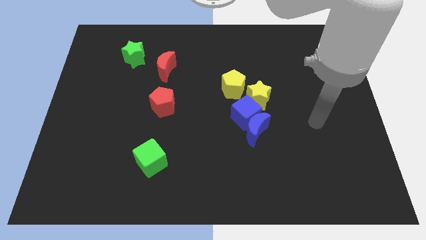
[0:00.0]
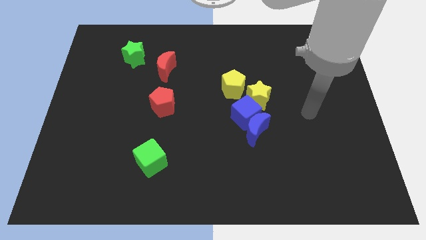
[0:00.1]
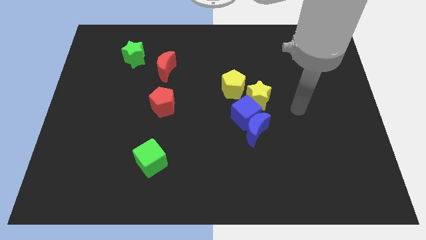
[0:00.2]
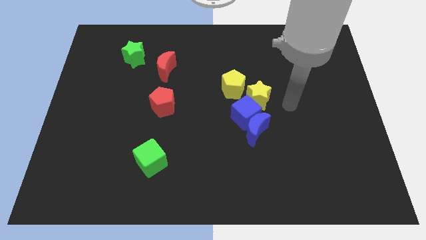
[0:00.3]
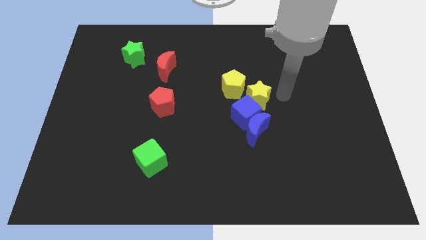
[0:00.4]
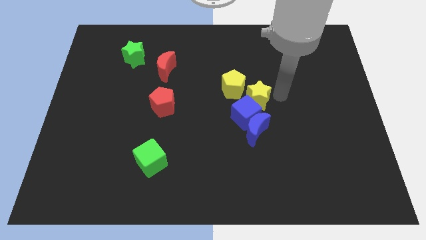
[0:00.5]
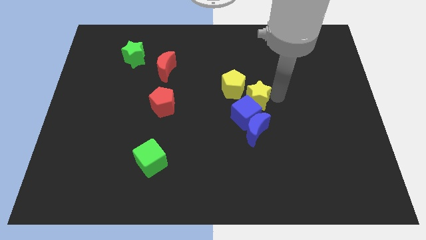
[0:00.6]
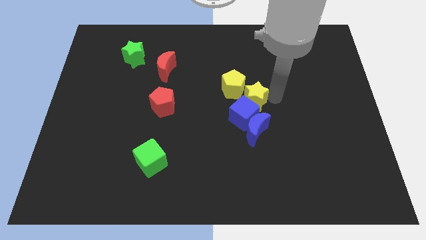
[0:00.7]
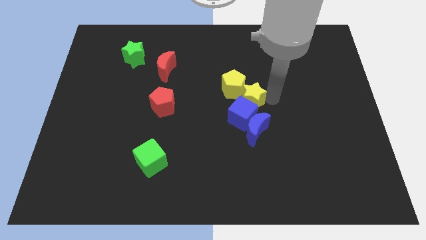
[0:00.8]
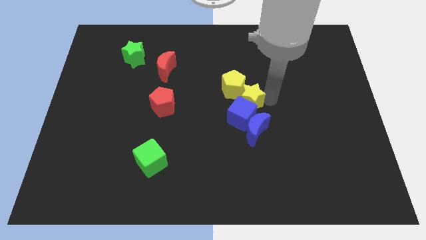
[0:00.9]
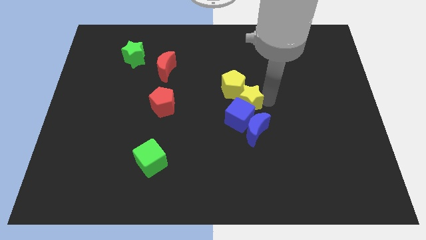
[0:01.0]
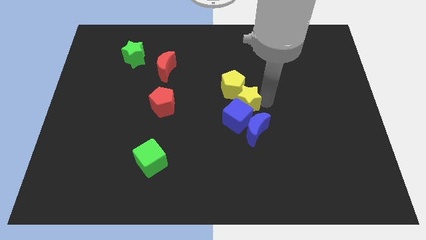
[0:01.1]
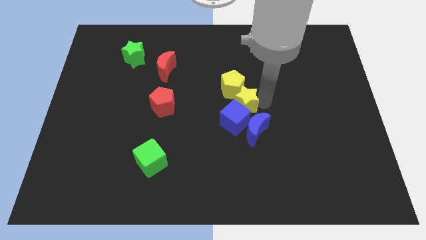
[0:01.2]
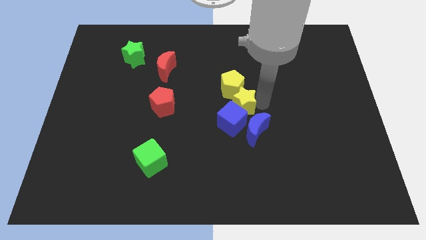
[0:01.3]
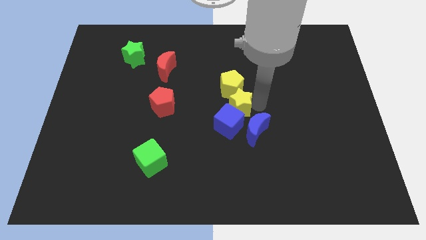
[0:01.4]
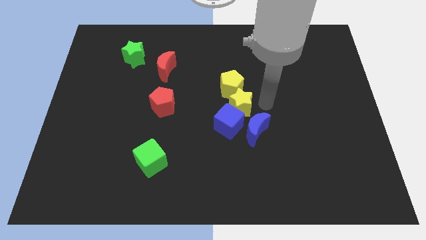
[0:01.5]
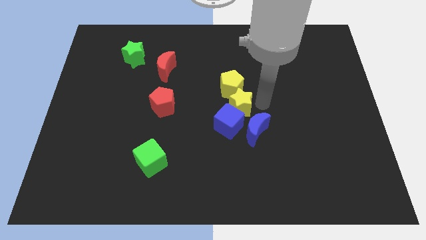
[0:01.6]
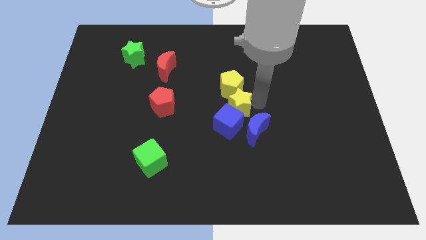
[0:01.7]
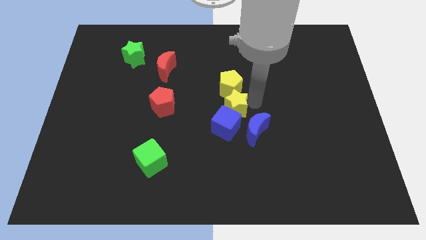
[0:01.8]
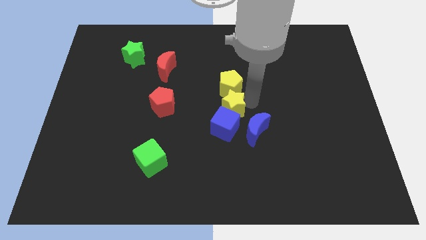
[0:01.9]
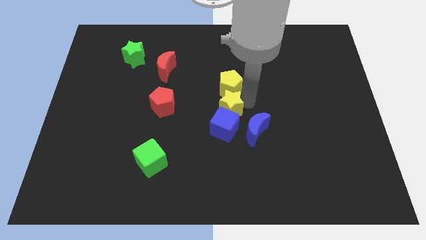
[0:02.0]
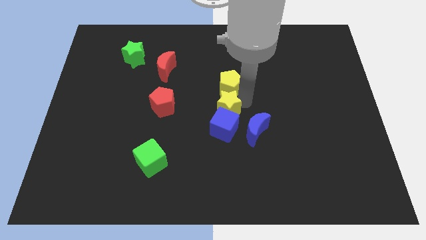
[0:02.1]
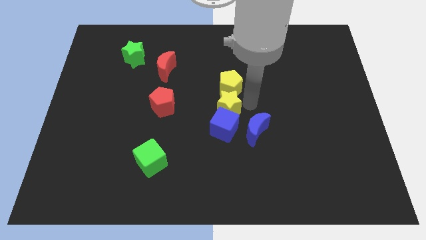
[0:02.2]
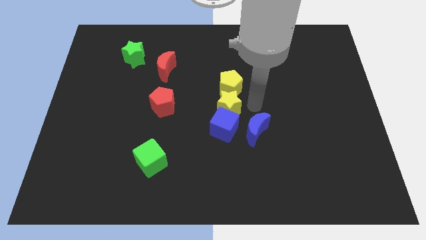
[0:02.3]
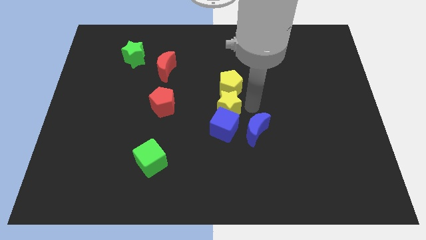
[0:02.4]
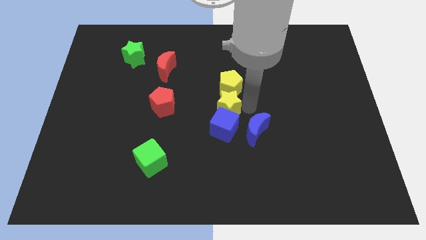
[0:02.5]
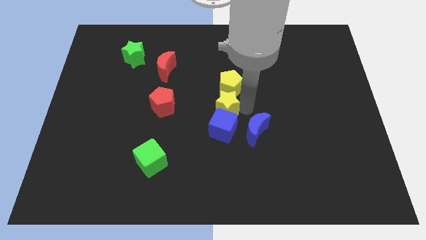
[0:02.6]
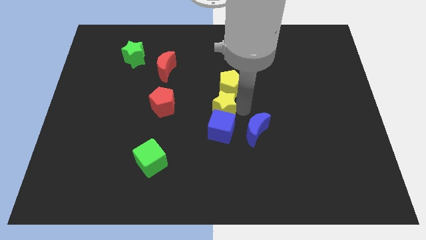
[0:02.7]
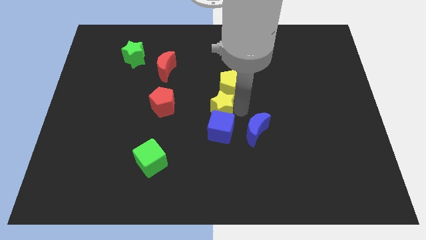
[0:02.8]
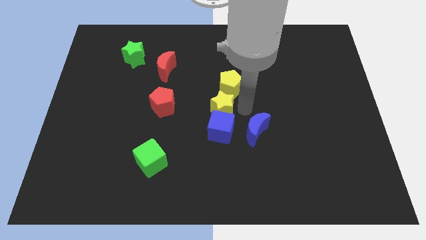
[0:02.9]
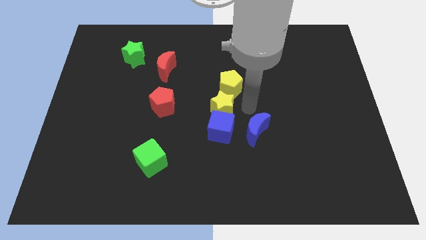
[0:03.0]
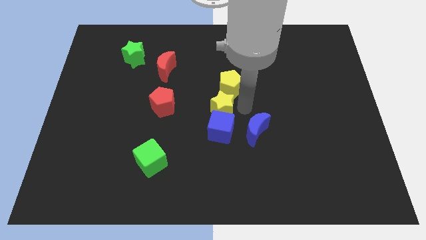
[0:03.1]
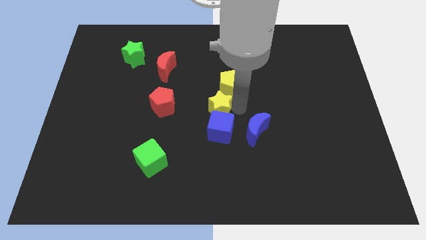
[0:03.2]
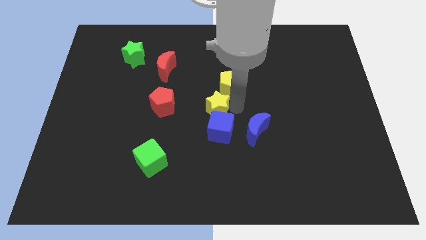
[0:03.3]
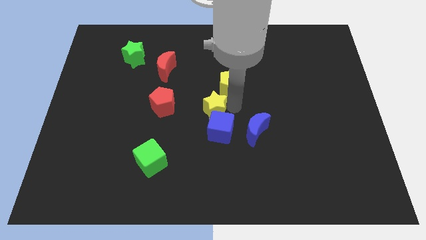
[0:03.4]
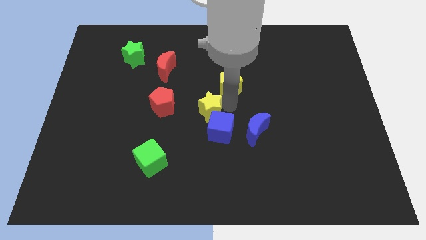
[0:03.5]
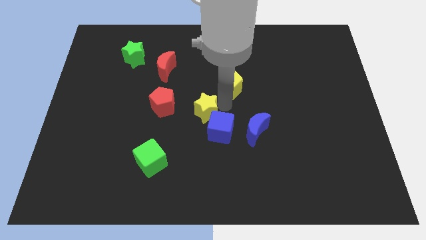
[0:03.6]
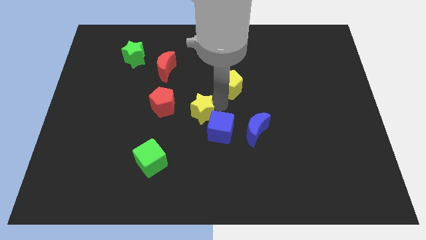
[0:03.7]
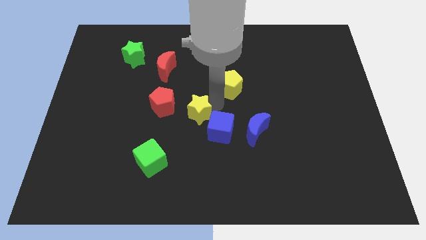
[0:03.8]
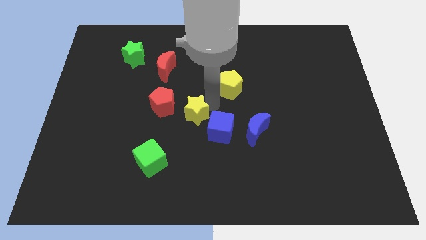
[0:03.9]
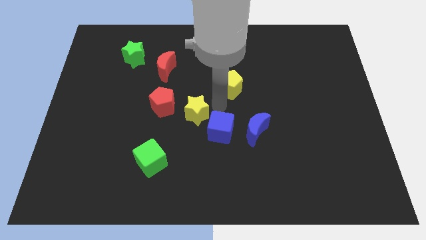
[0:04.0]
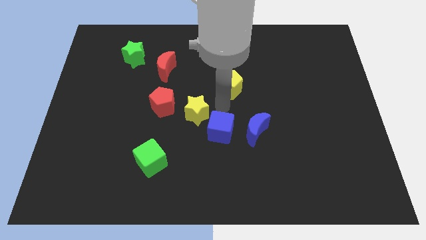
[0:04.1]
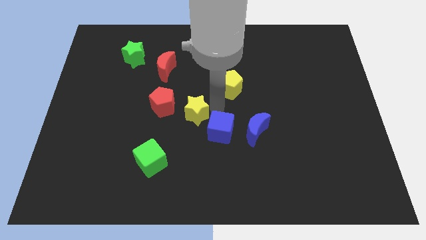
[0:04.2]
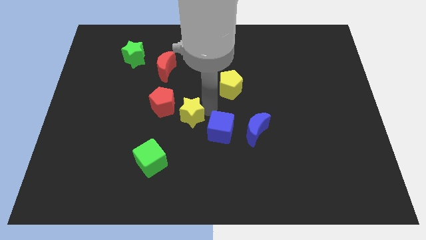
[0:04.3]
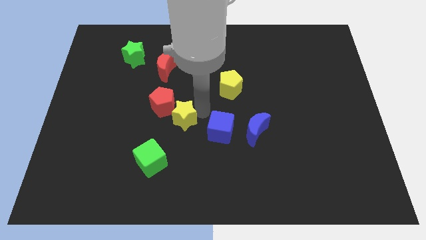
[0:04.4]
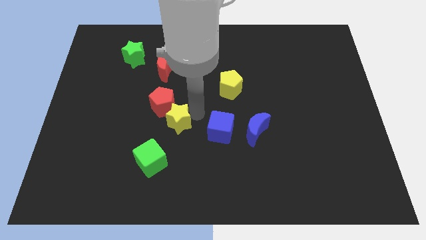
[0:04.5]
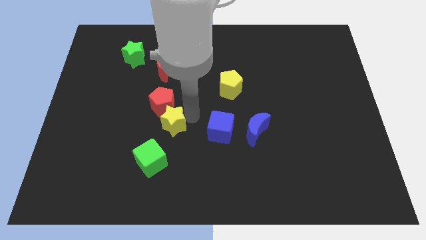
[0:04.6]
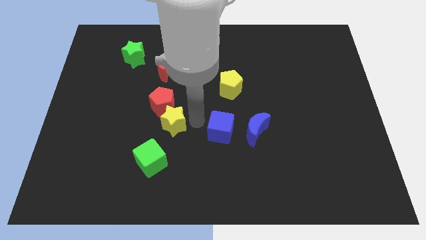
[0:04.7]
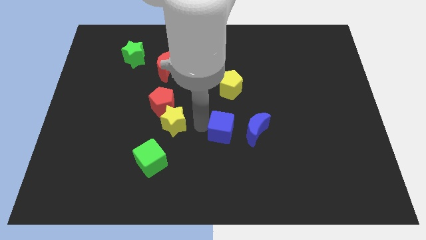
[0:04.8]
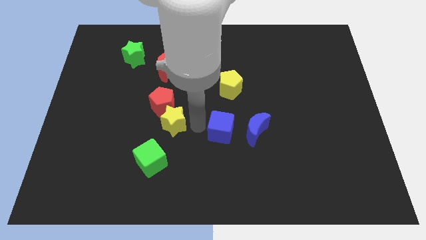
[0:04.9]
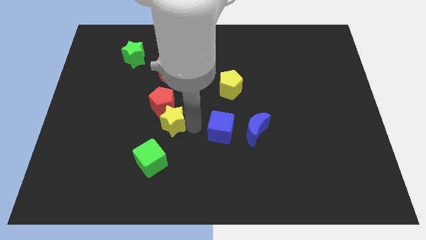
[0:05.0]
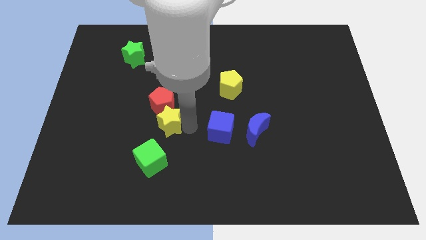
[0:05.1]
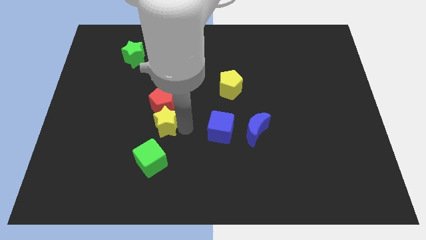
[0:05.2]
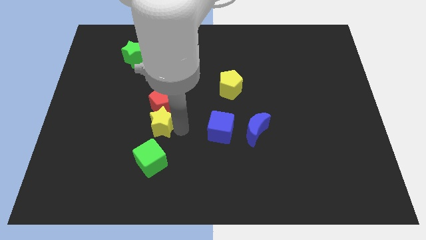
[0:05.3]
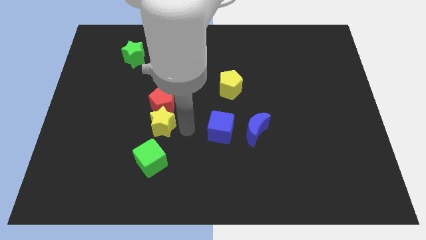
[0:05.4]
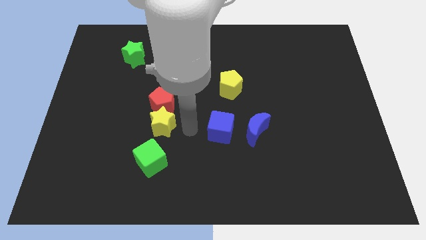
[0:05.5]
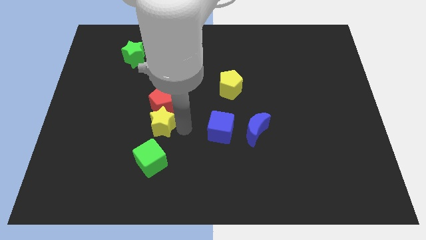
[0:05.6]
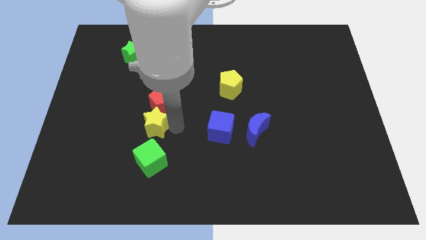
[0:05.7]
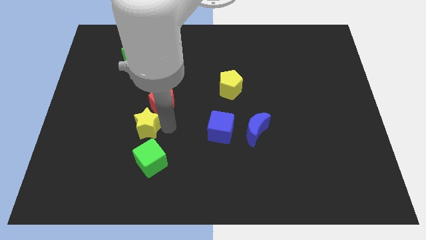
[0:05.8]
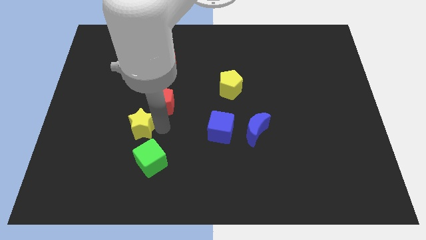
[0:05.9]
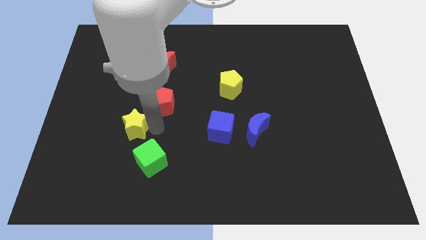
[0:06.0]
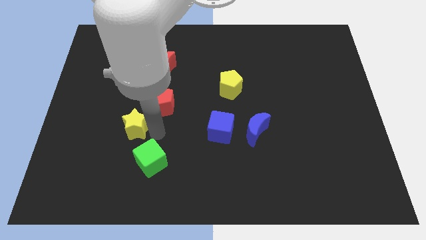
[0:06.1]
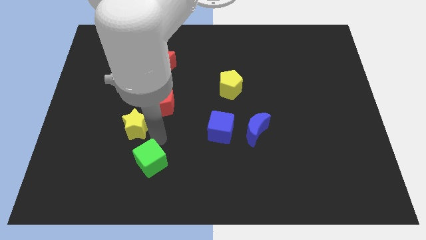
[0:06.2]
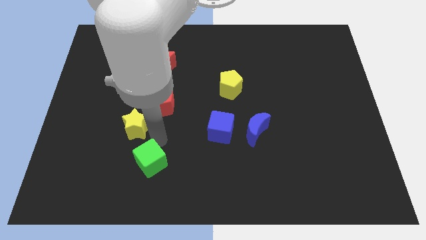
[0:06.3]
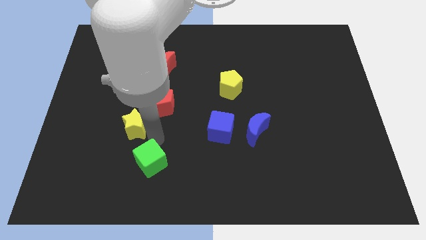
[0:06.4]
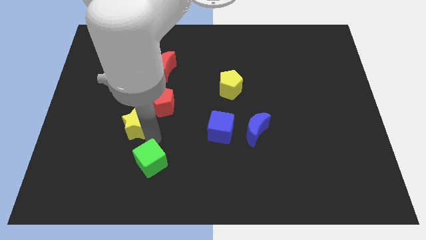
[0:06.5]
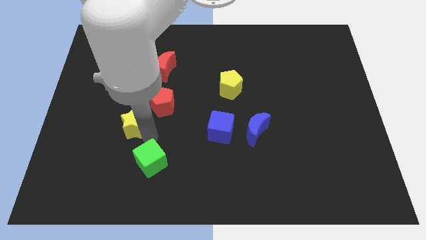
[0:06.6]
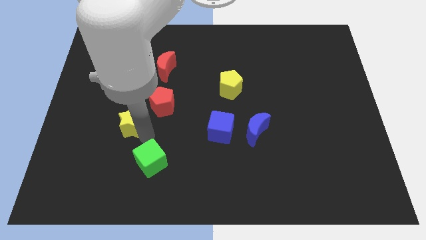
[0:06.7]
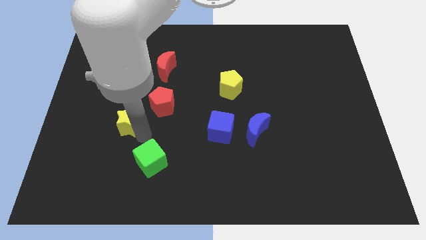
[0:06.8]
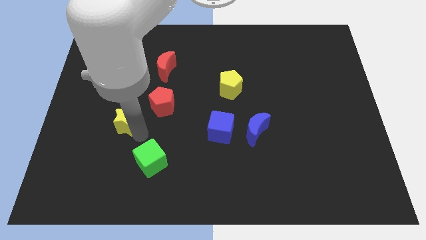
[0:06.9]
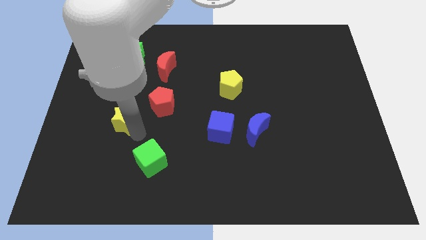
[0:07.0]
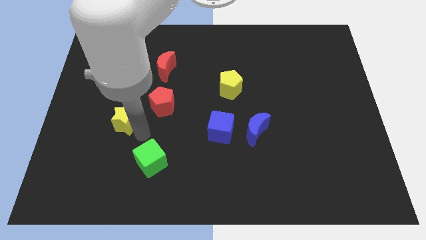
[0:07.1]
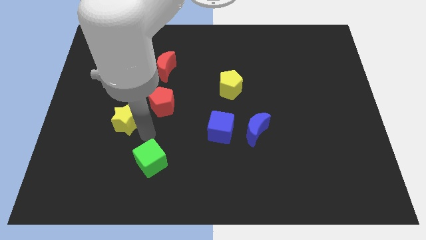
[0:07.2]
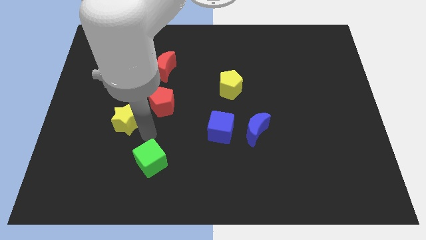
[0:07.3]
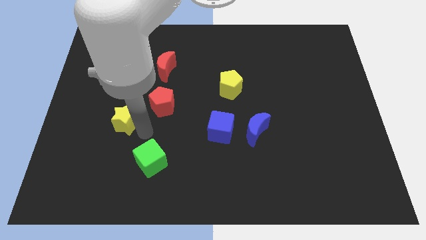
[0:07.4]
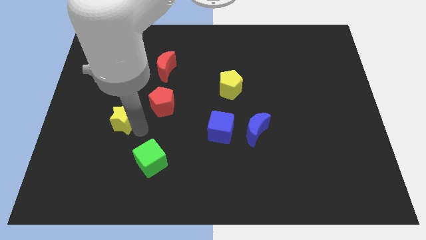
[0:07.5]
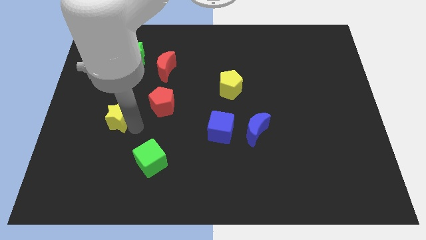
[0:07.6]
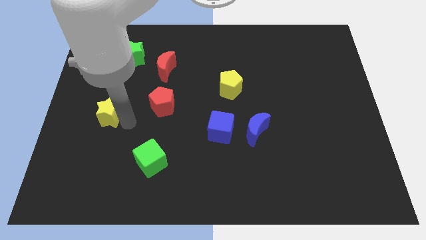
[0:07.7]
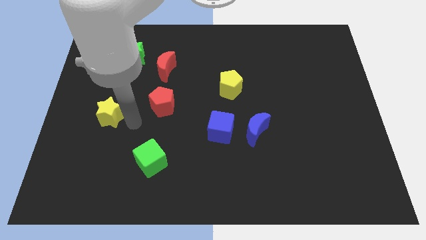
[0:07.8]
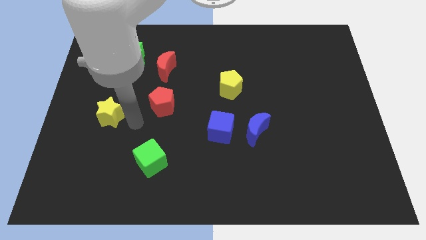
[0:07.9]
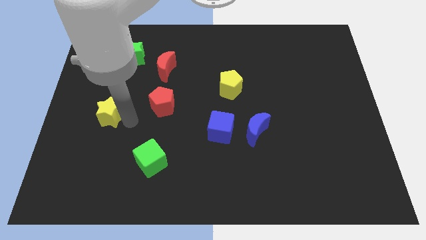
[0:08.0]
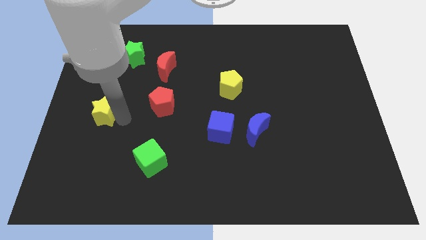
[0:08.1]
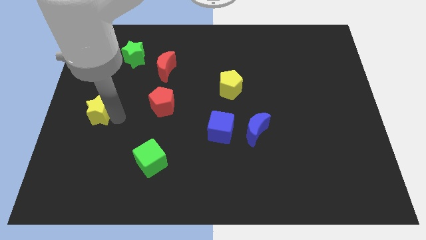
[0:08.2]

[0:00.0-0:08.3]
put the yellow star to the left side of the board
